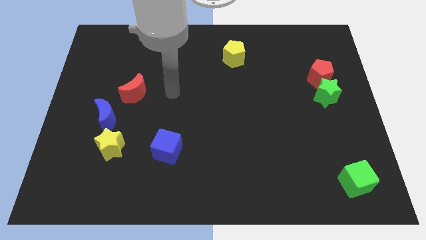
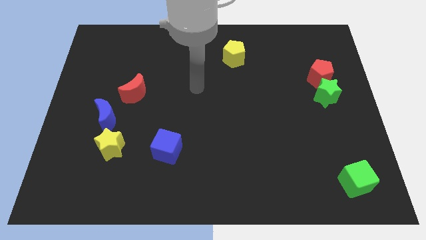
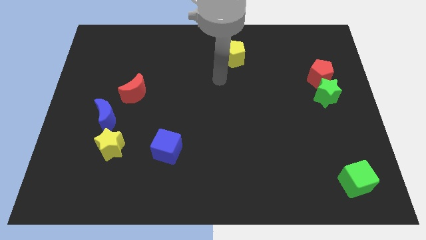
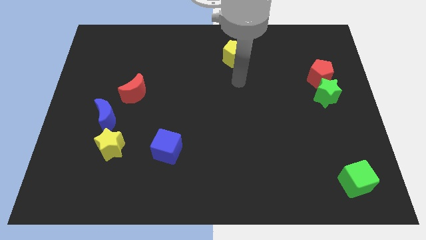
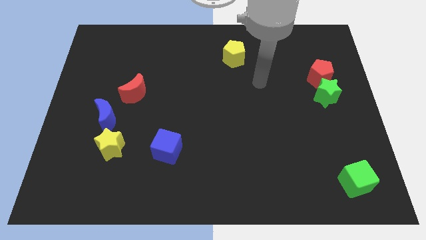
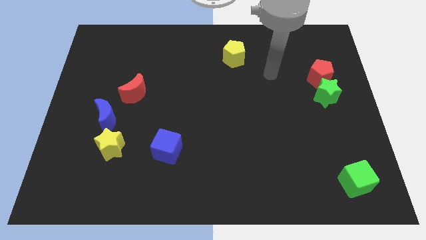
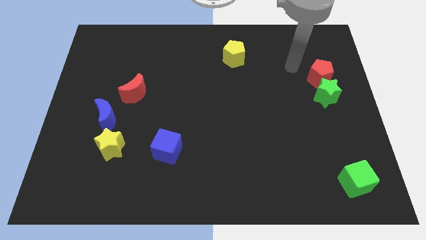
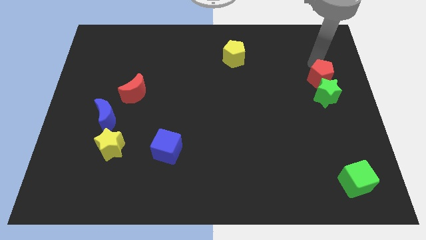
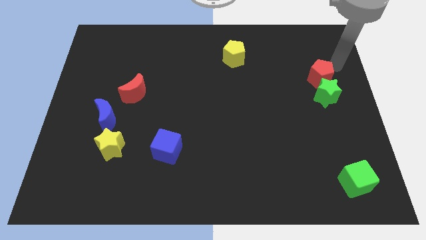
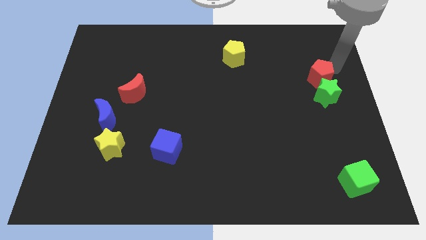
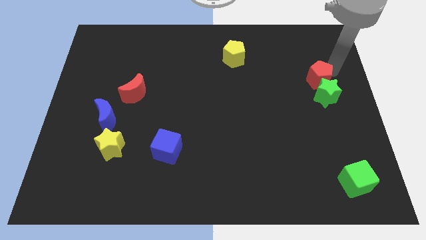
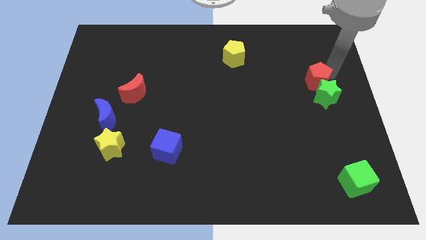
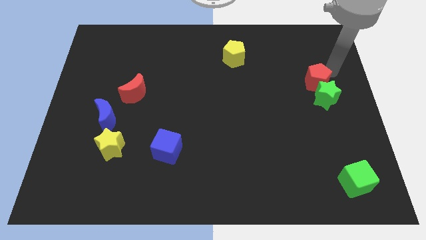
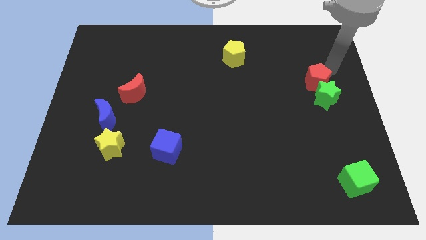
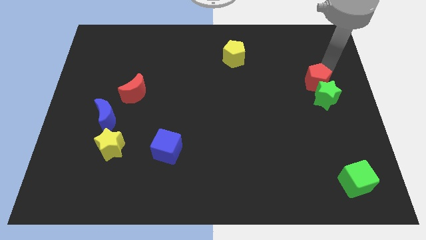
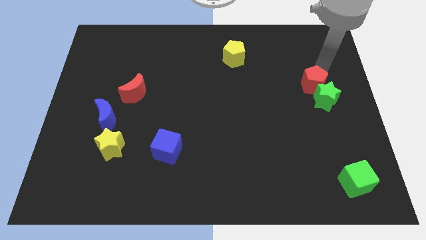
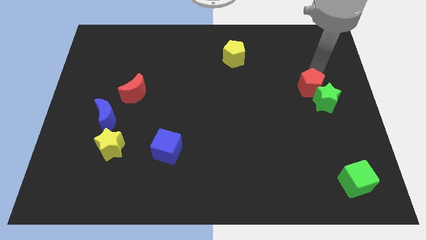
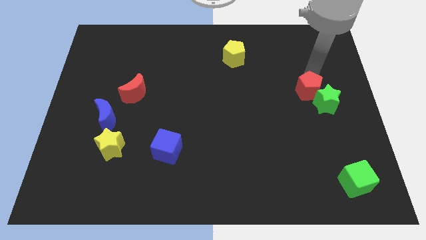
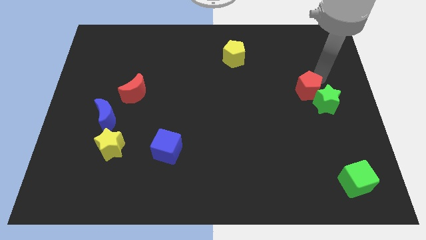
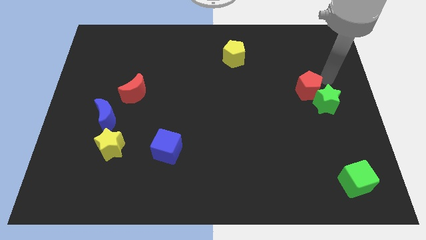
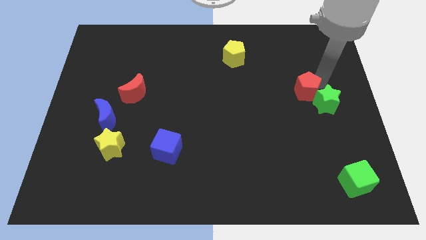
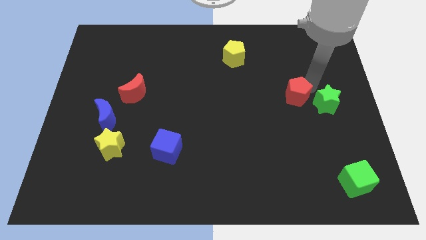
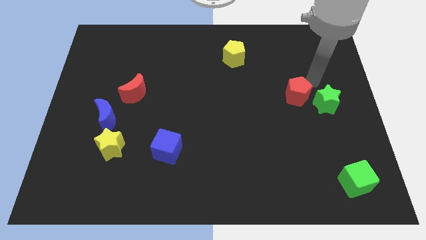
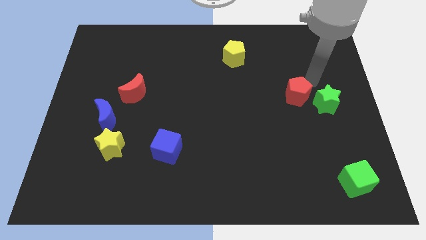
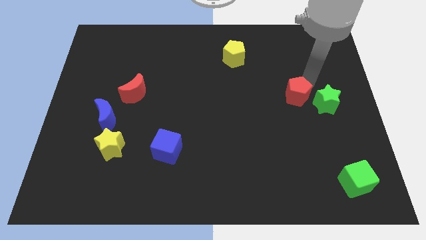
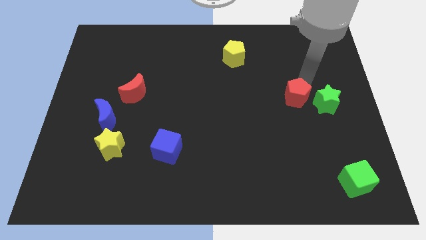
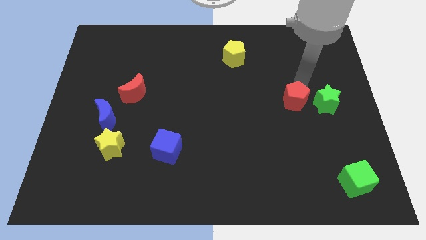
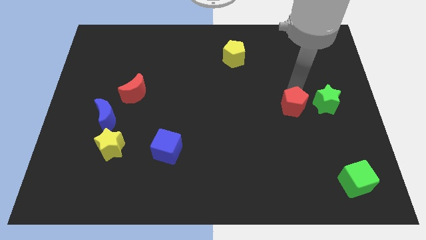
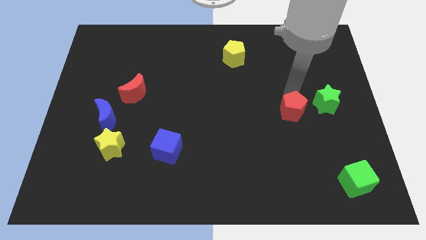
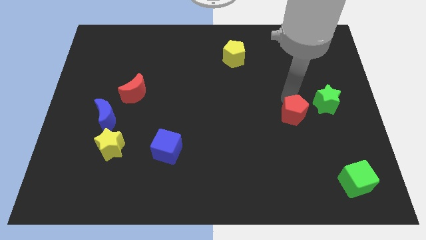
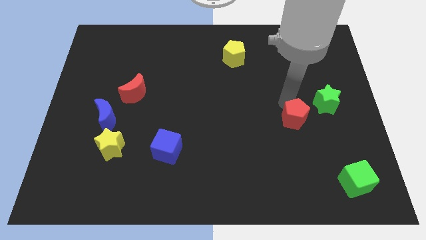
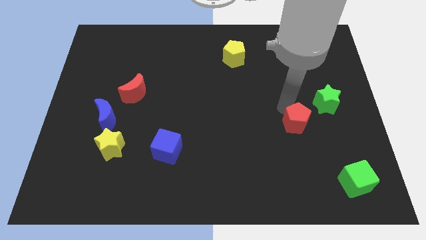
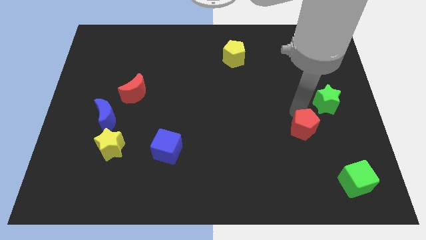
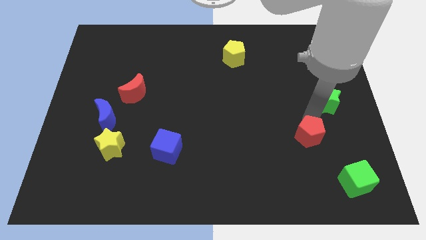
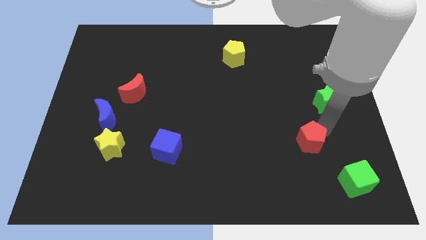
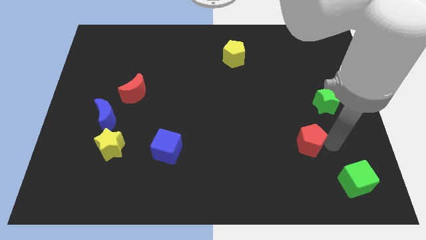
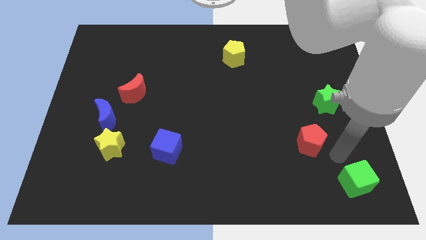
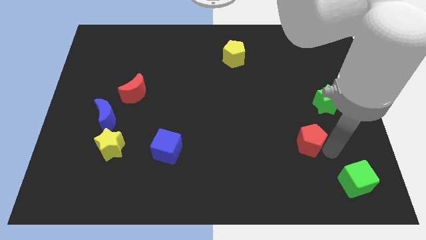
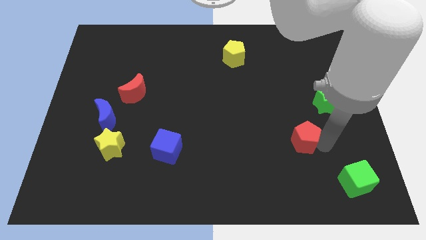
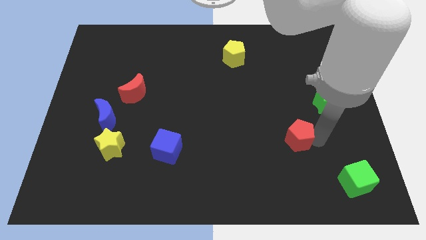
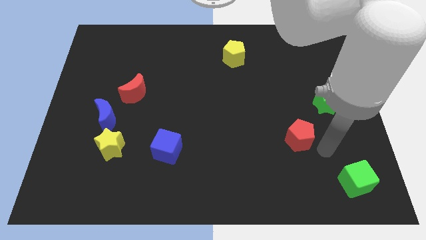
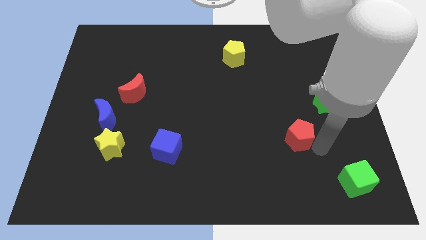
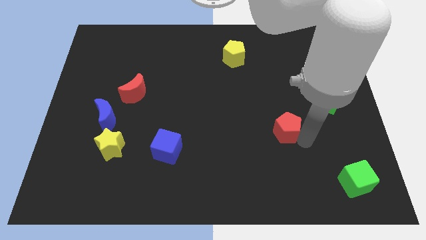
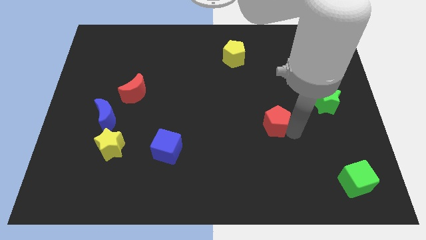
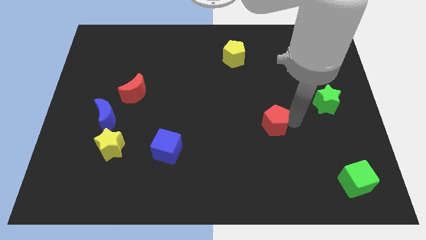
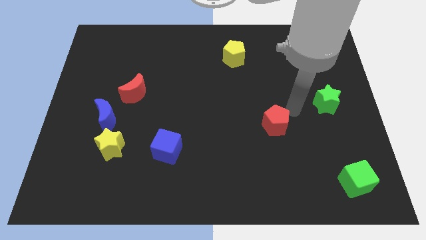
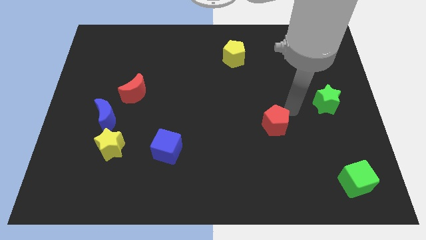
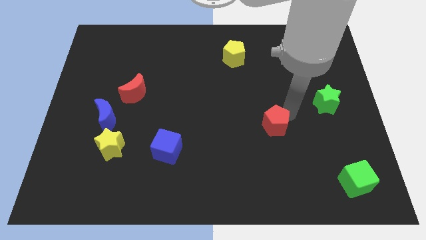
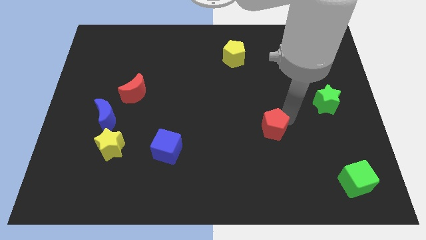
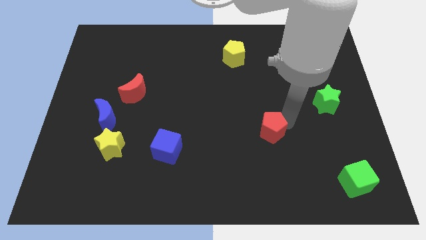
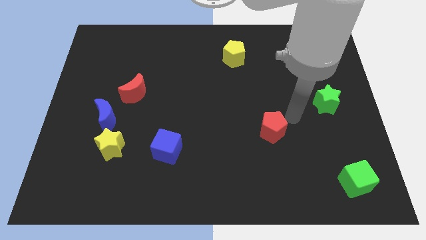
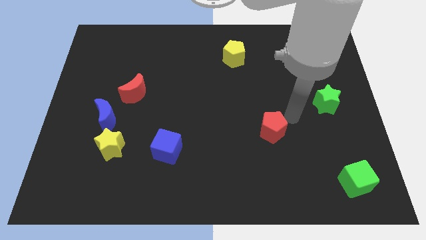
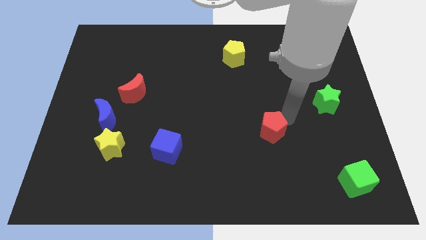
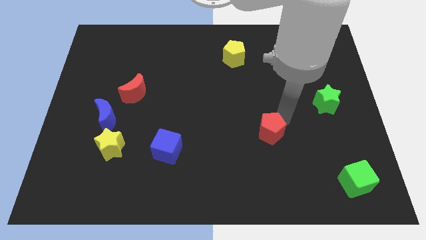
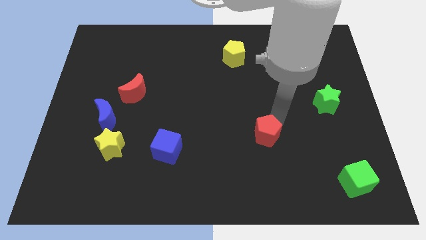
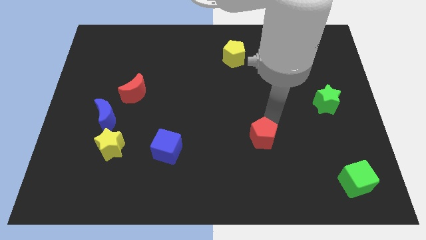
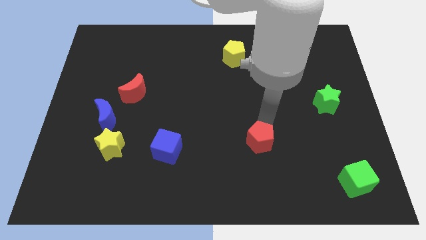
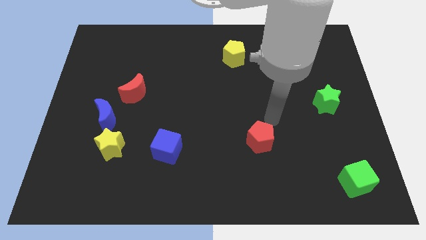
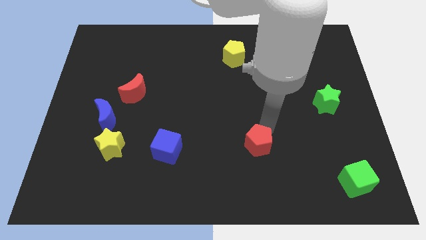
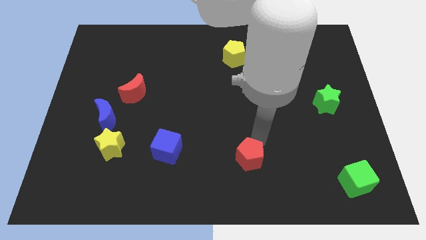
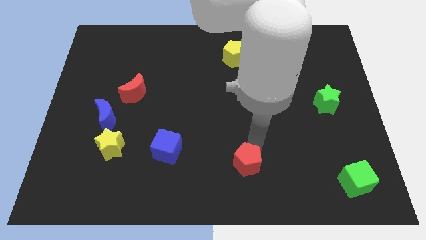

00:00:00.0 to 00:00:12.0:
move the red pentagon to the bottom

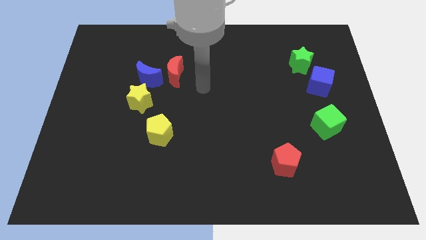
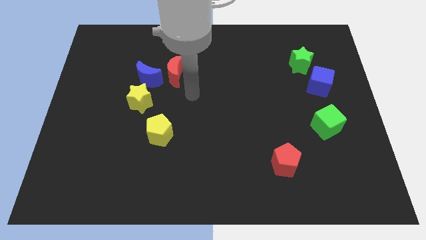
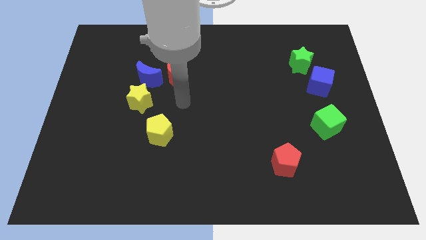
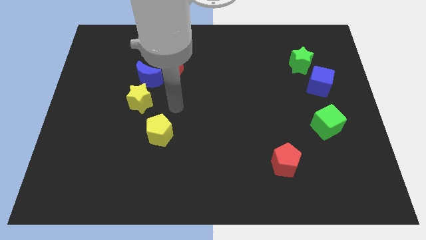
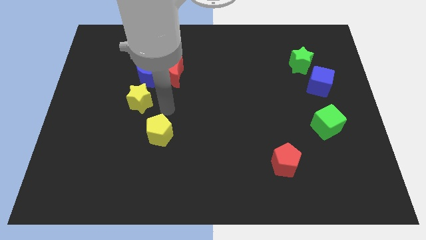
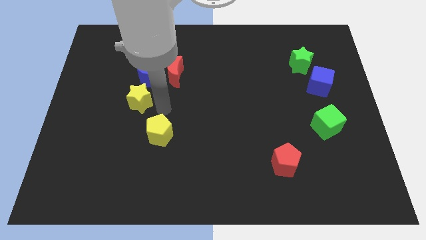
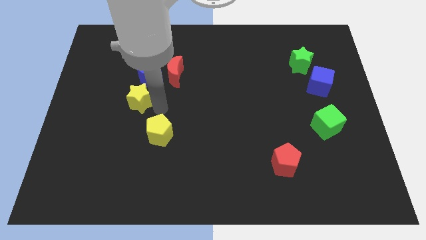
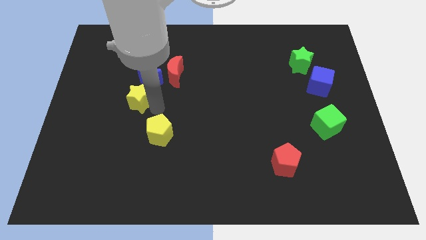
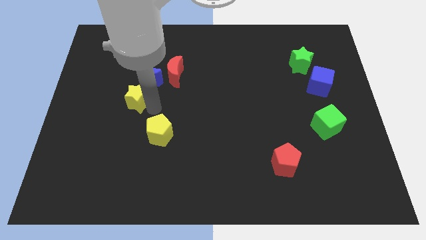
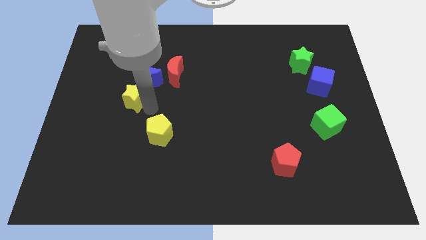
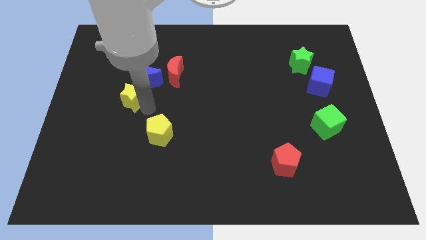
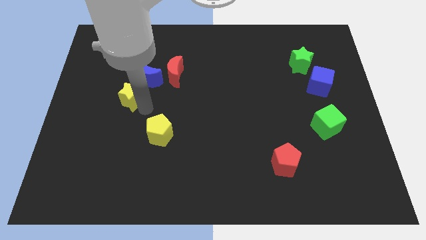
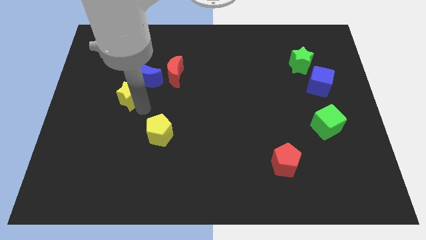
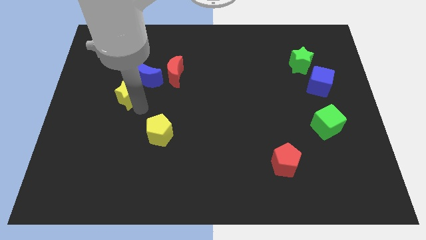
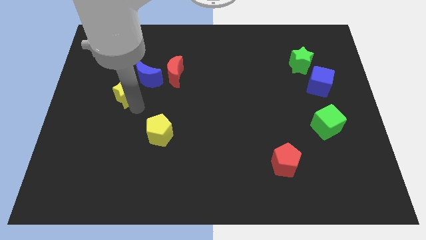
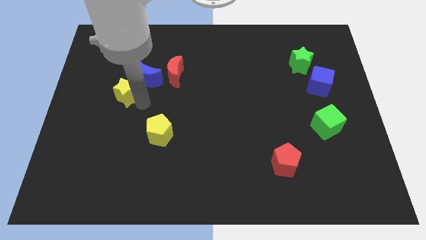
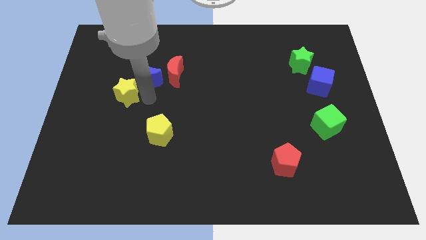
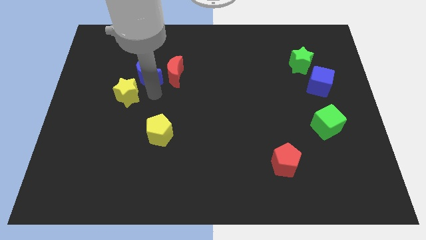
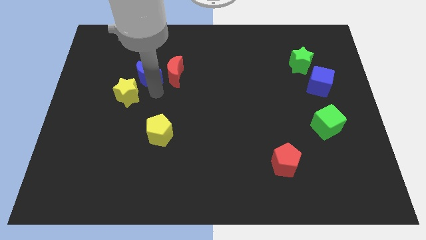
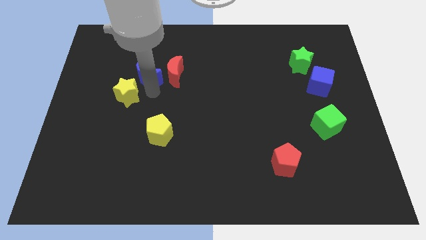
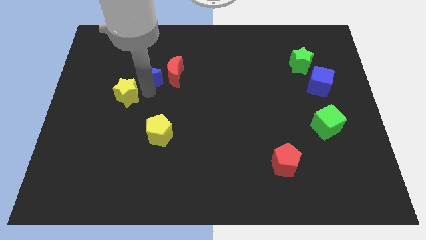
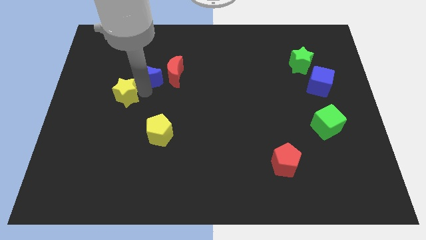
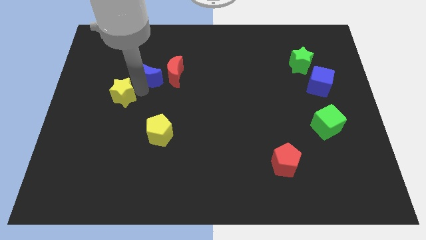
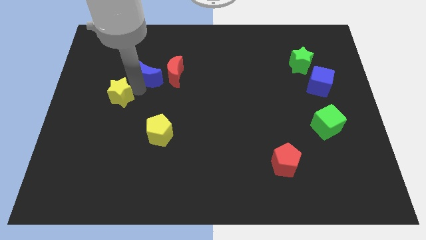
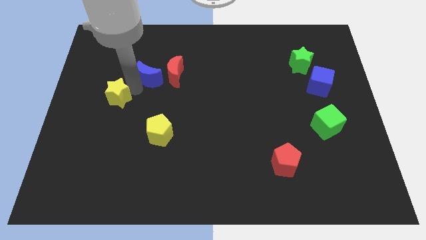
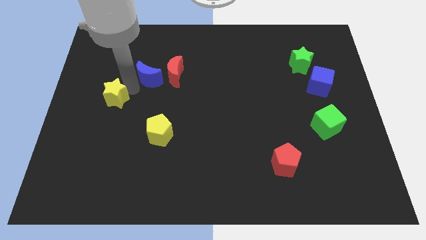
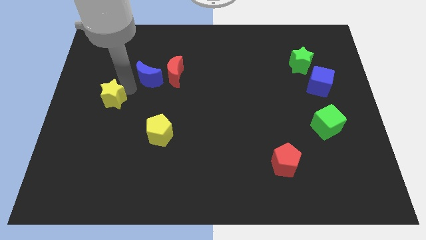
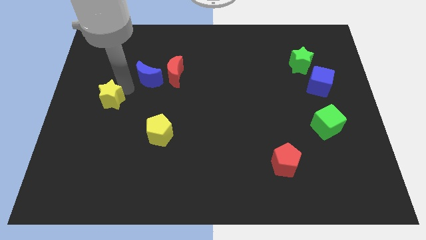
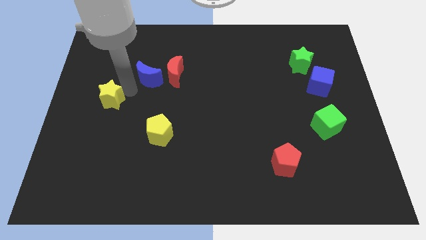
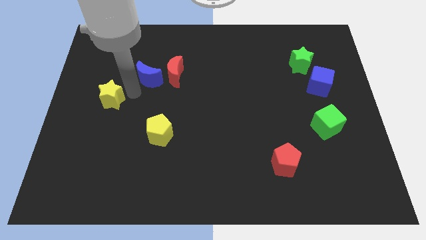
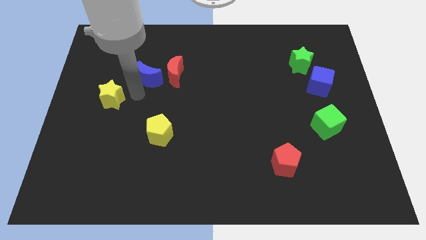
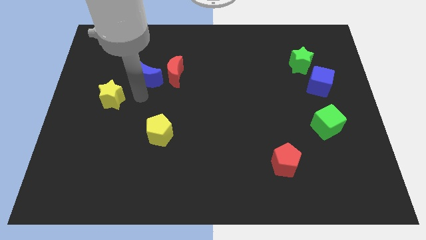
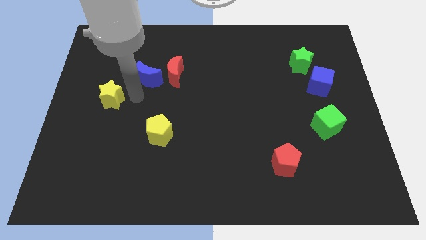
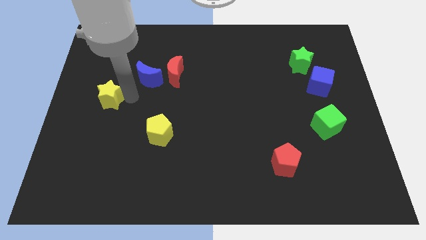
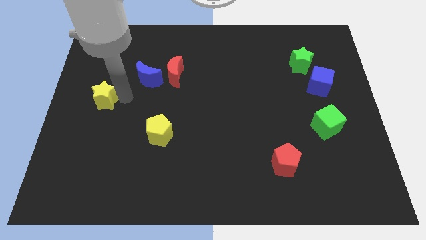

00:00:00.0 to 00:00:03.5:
move the yellow star to the center left
